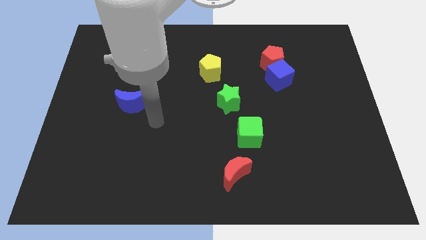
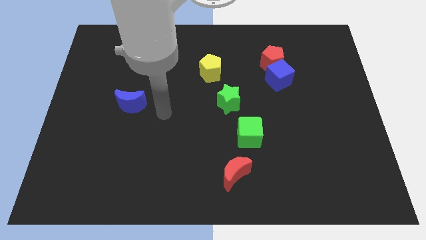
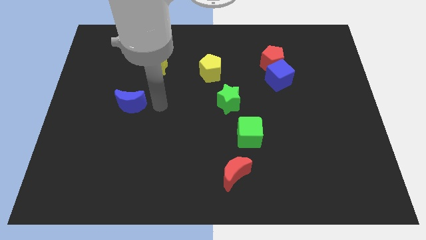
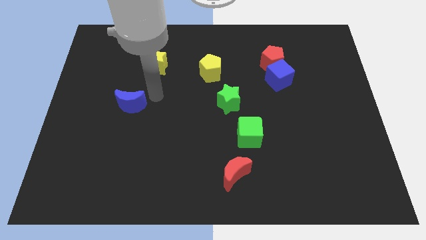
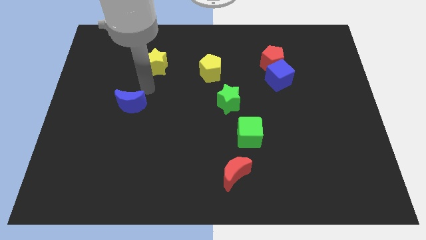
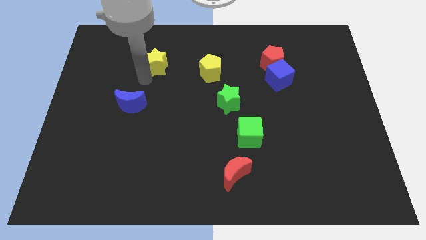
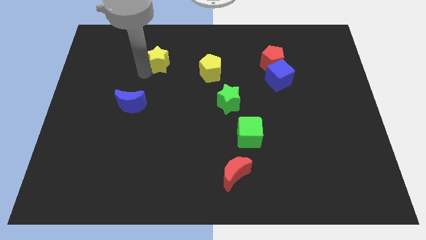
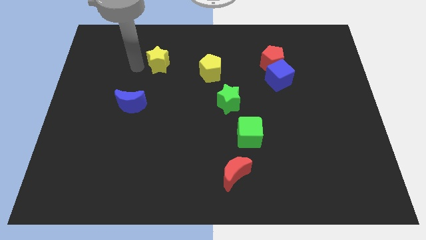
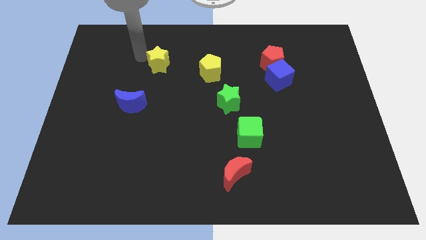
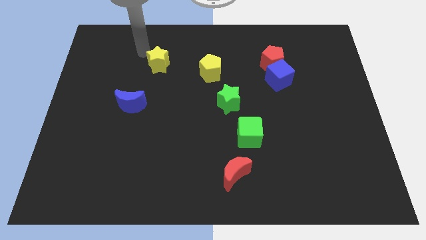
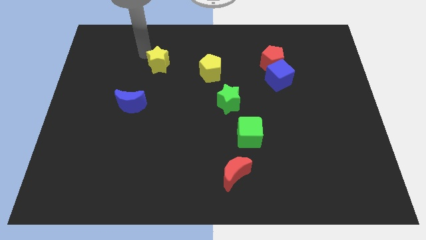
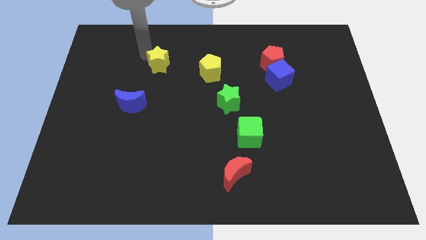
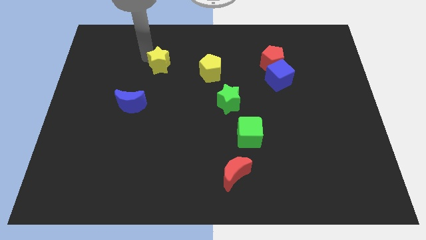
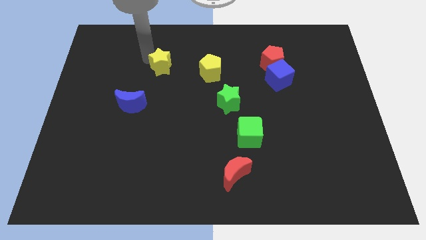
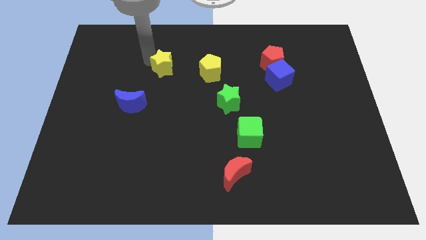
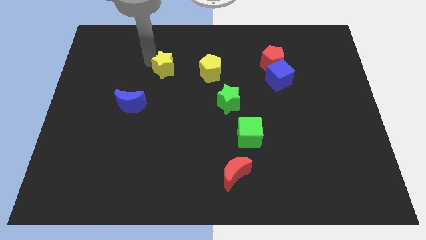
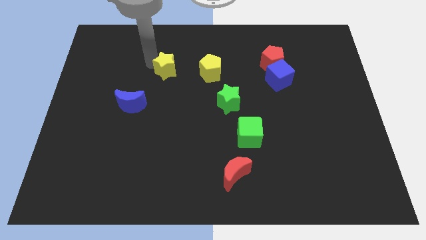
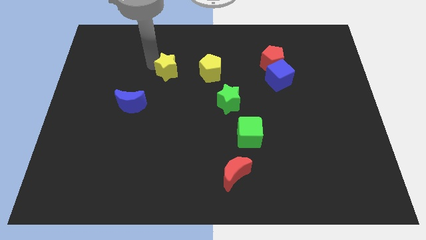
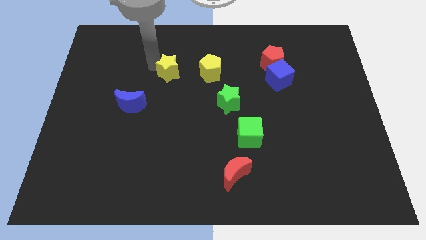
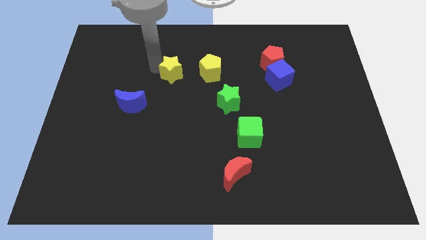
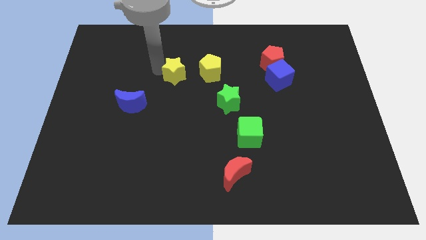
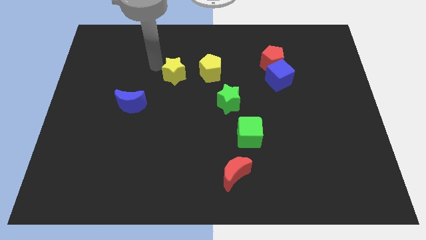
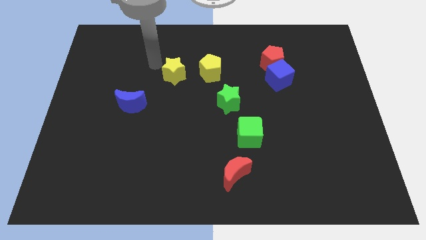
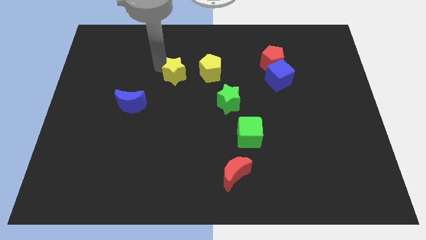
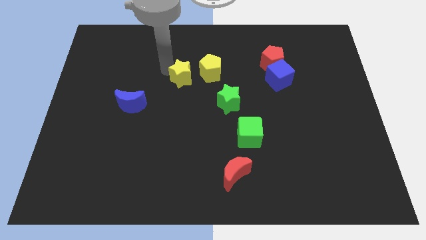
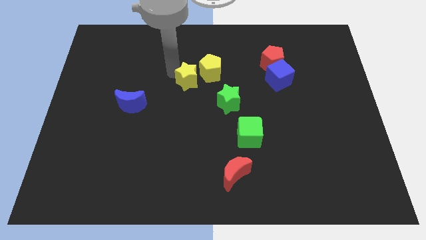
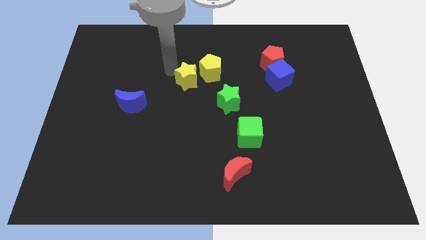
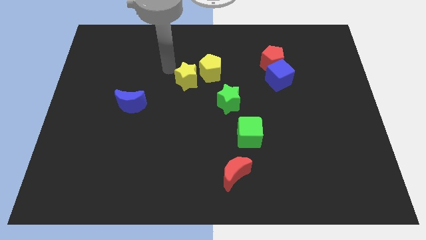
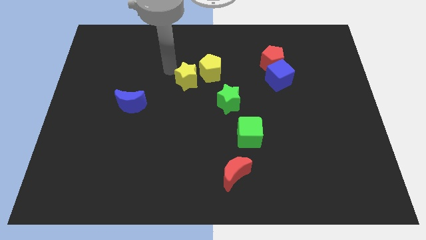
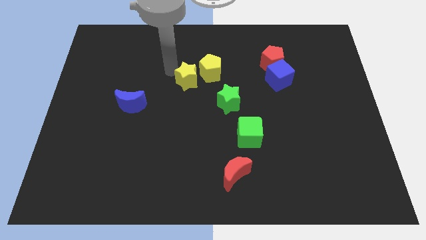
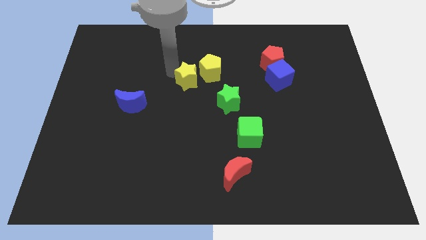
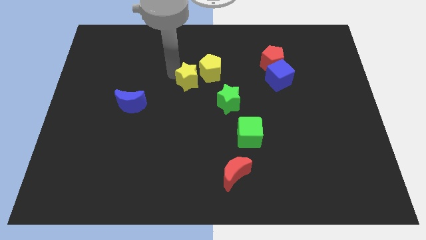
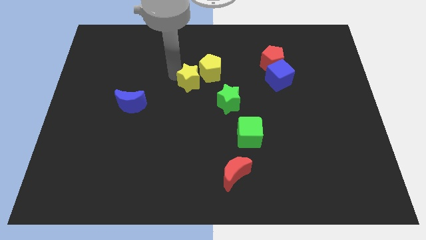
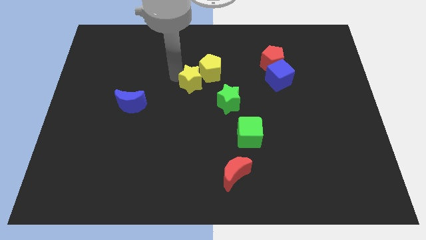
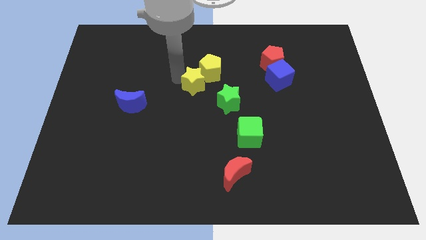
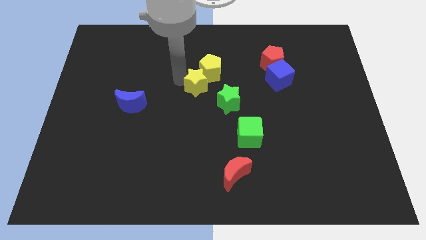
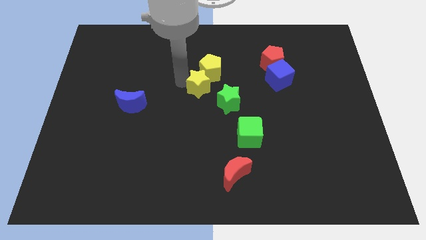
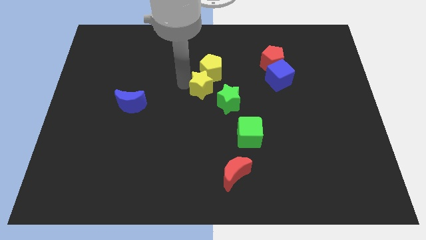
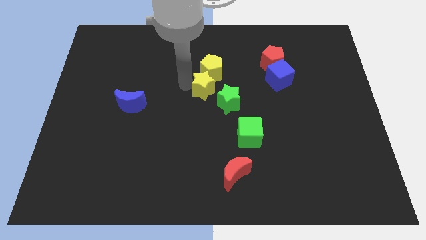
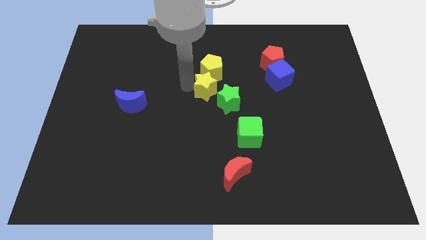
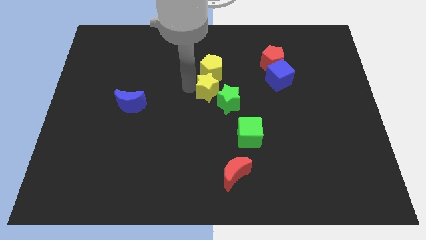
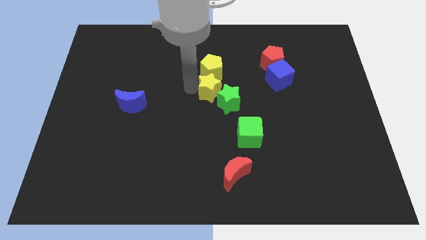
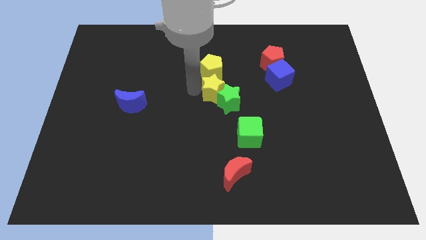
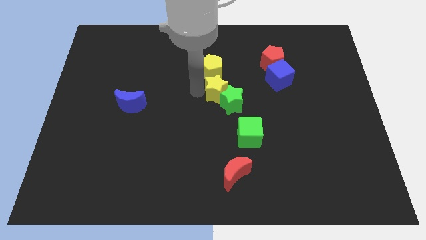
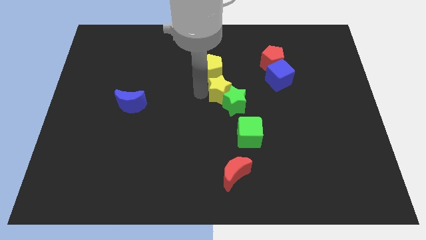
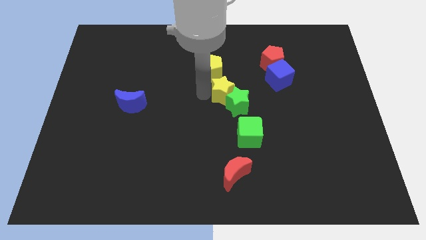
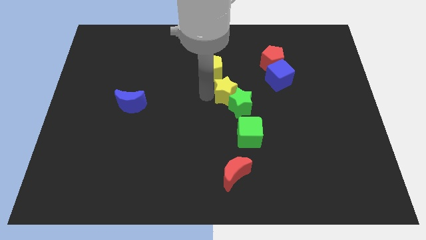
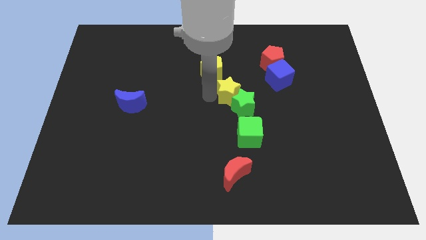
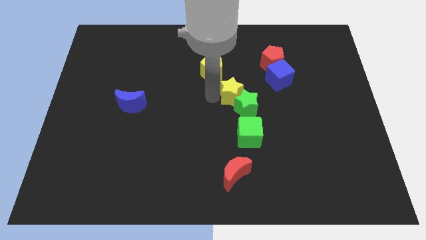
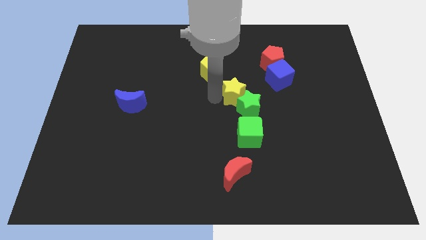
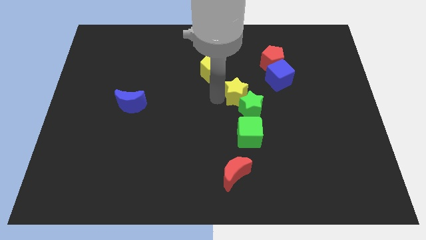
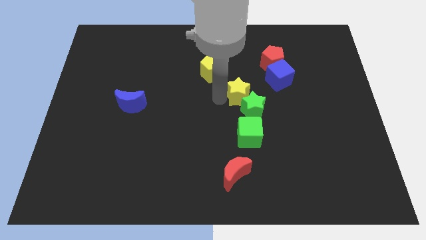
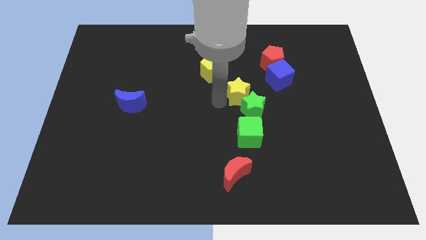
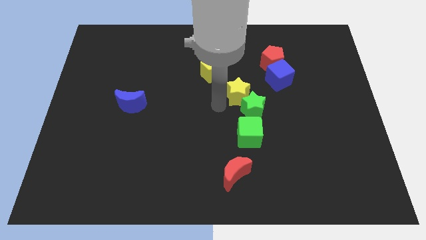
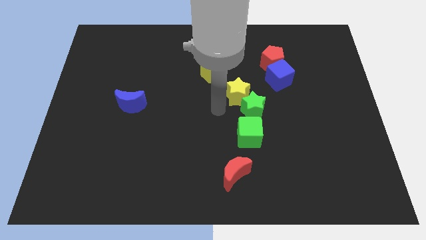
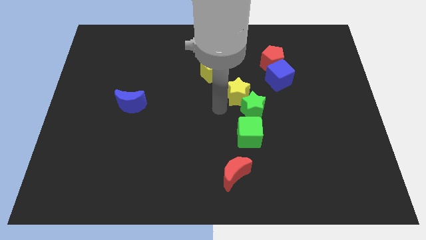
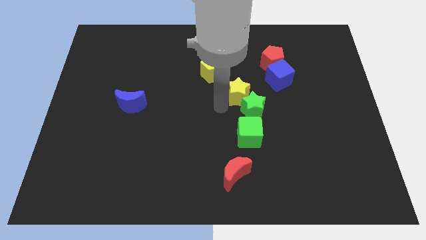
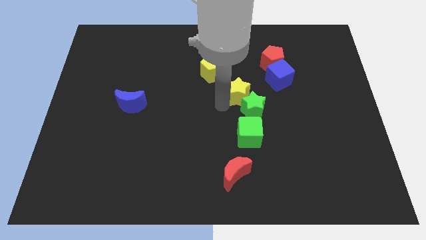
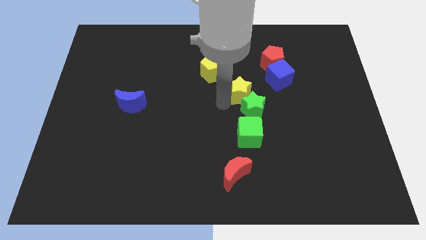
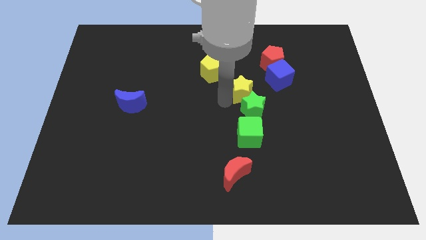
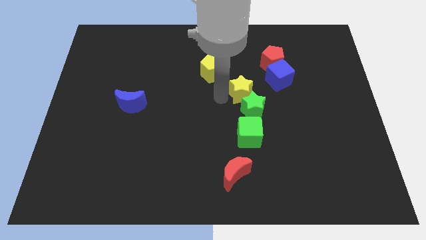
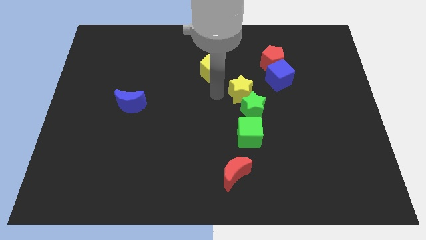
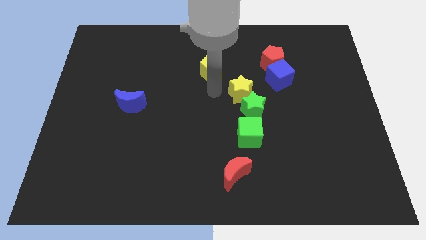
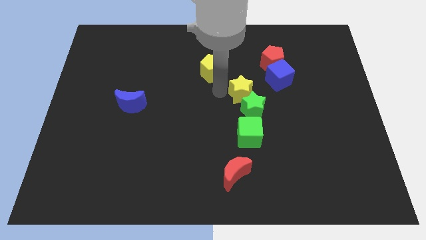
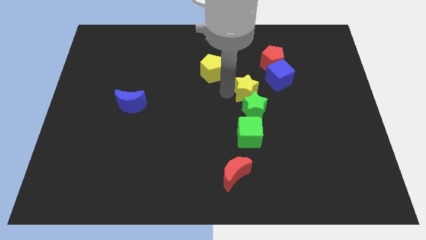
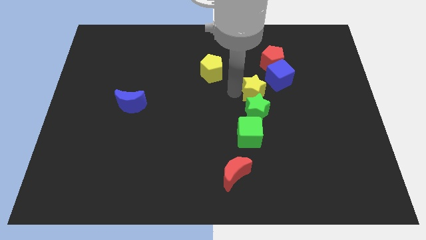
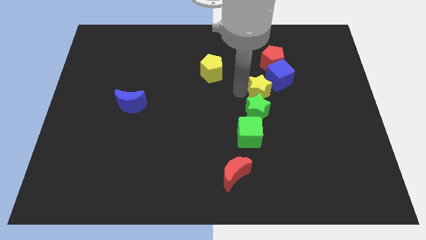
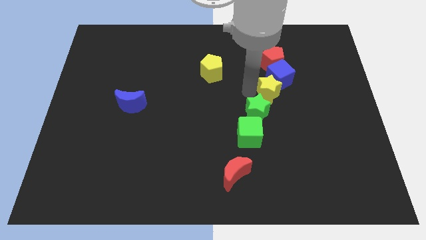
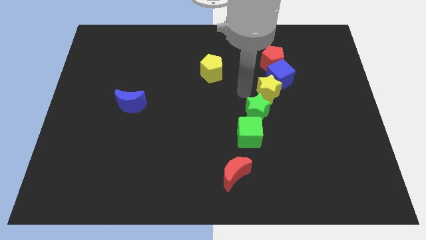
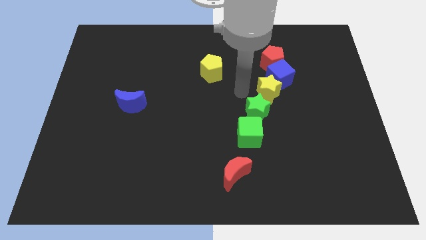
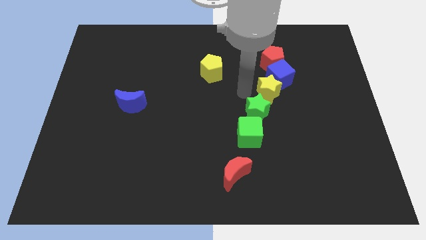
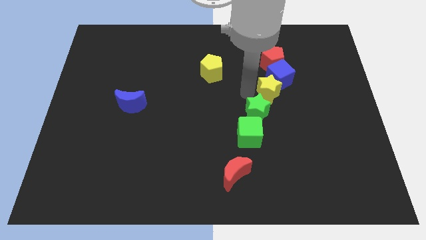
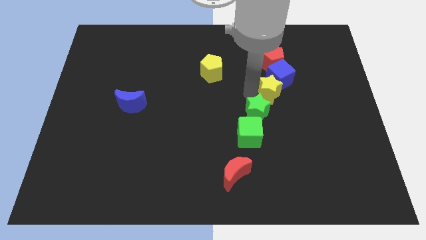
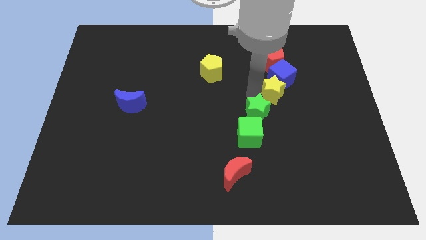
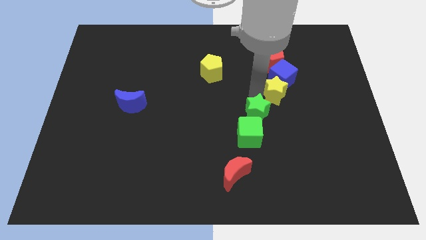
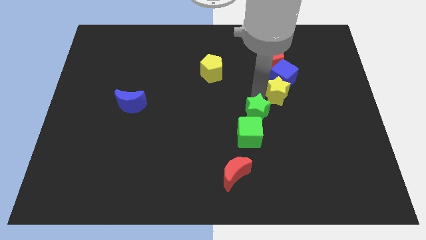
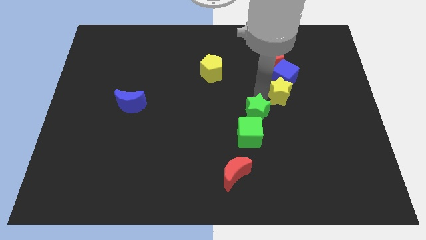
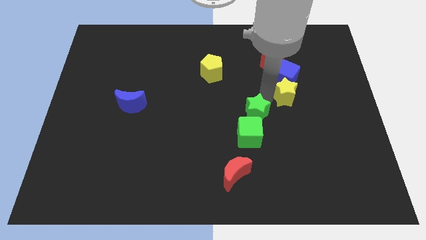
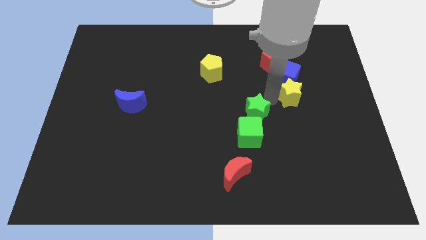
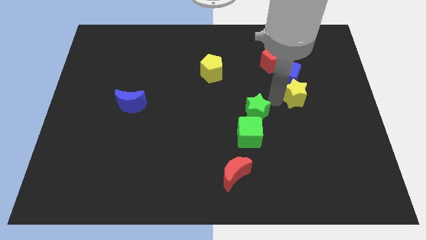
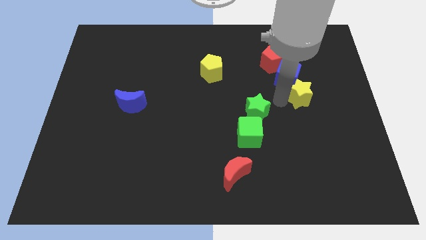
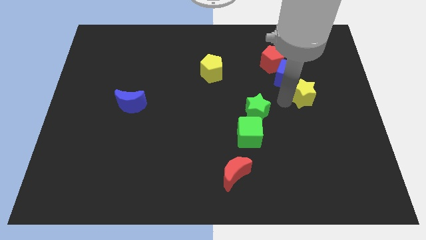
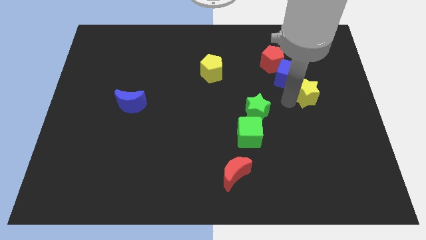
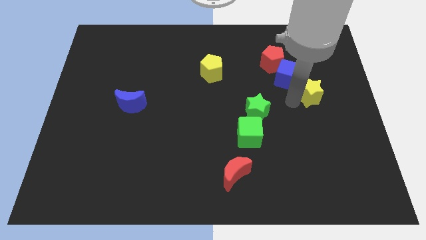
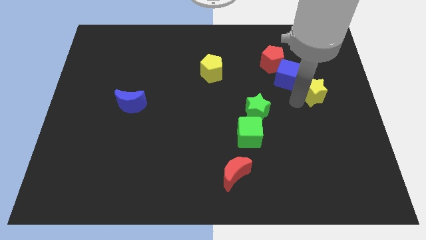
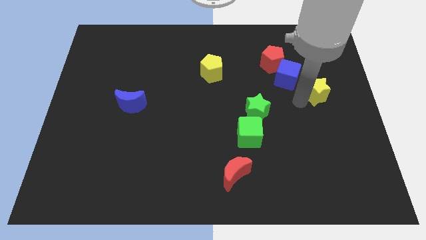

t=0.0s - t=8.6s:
move the yellow star right of the blue cube
